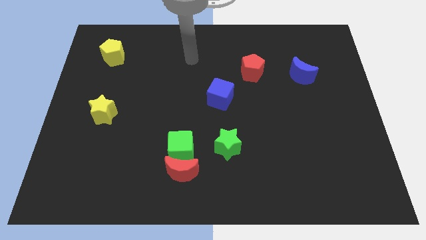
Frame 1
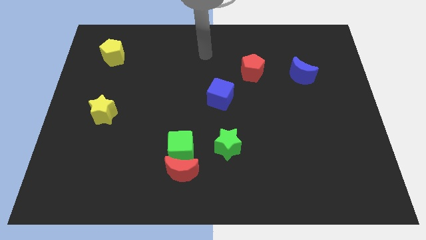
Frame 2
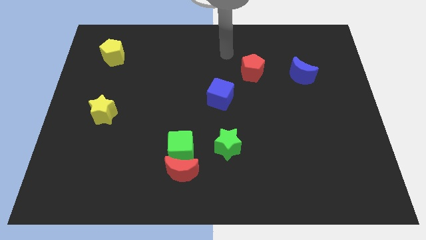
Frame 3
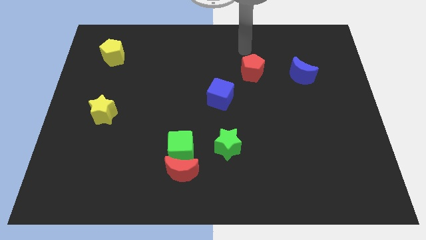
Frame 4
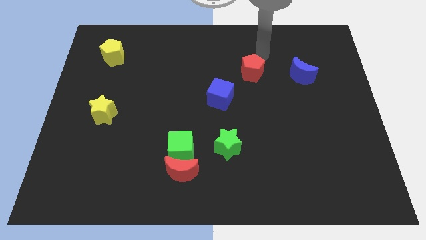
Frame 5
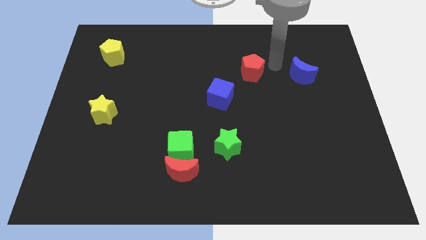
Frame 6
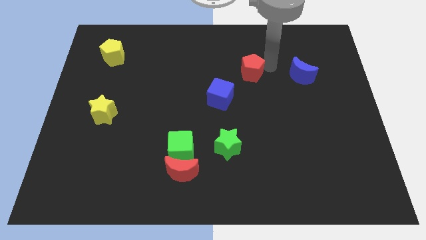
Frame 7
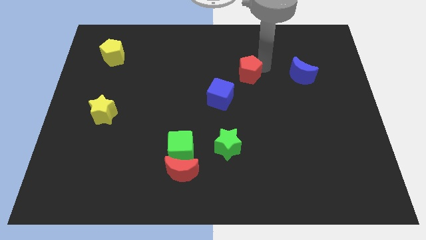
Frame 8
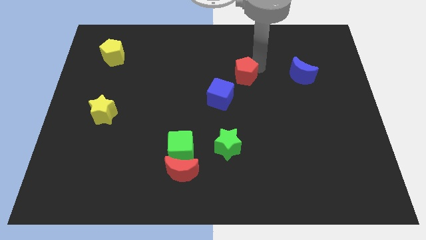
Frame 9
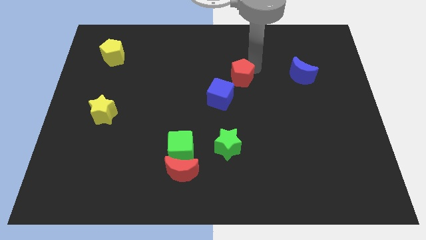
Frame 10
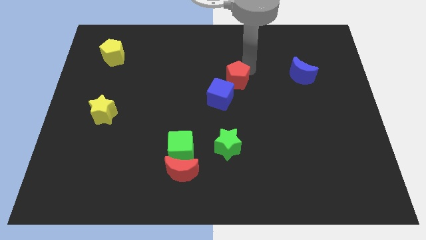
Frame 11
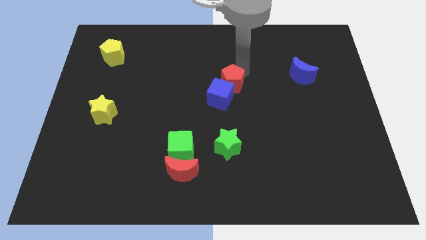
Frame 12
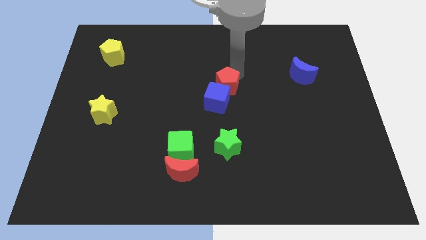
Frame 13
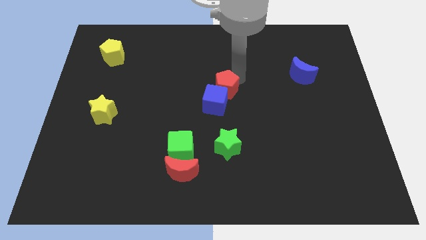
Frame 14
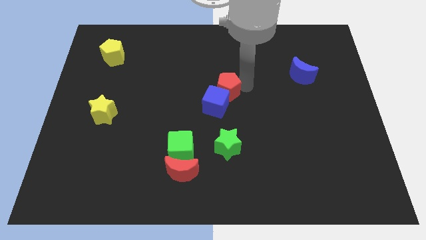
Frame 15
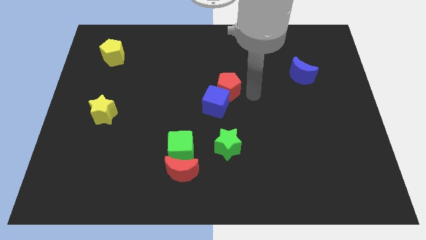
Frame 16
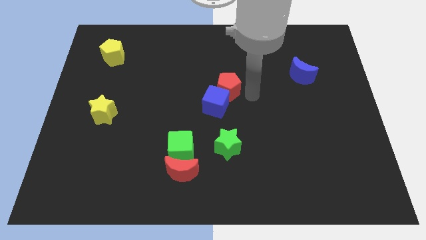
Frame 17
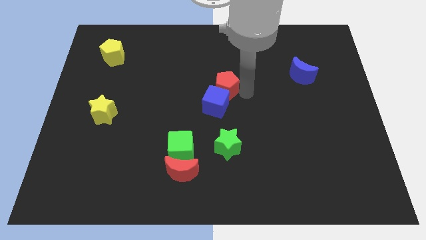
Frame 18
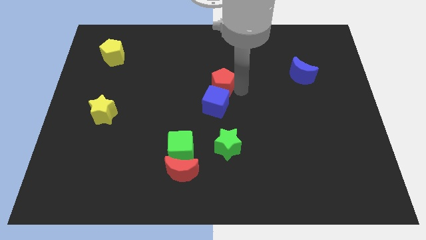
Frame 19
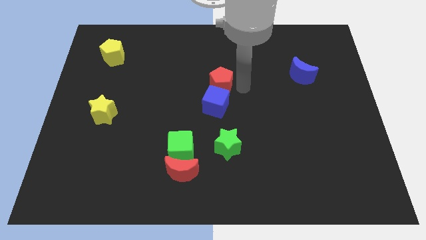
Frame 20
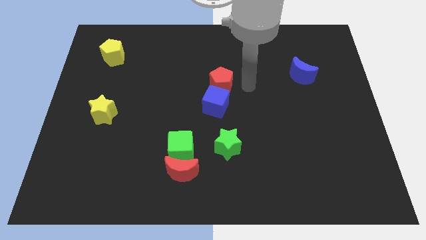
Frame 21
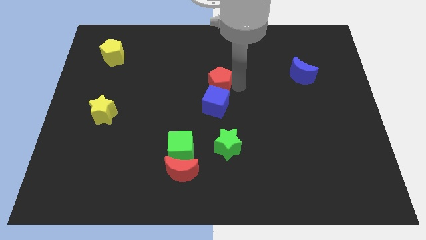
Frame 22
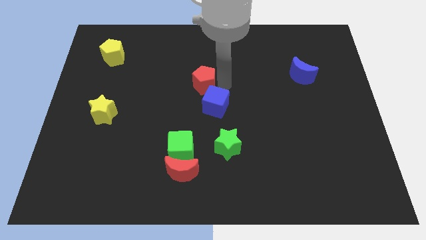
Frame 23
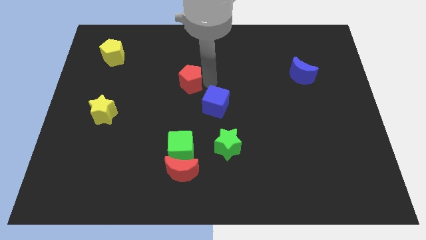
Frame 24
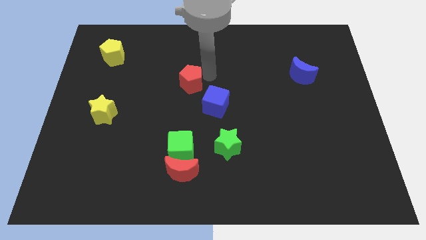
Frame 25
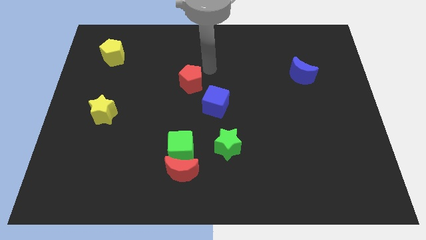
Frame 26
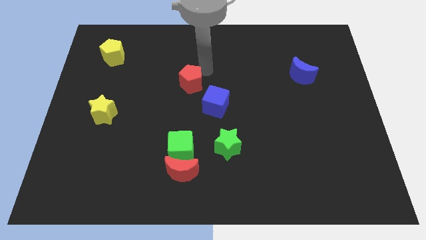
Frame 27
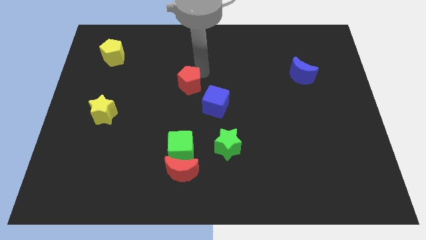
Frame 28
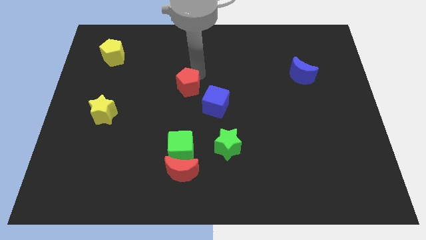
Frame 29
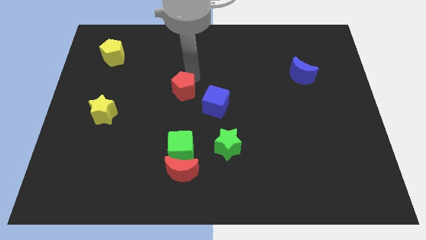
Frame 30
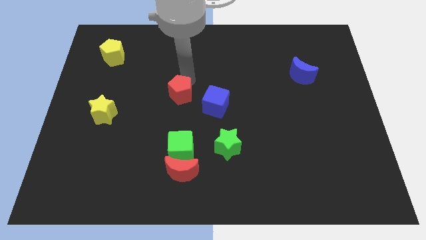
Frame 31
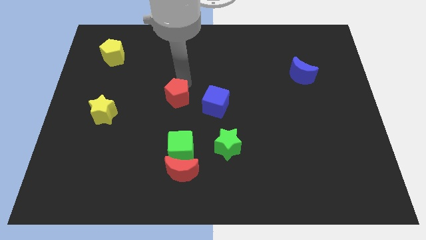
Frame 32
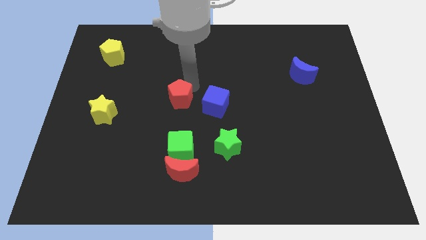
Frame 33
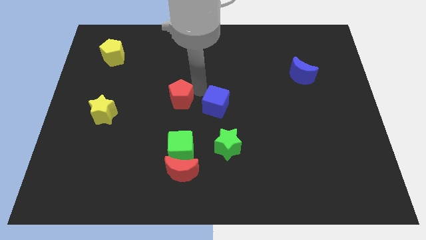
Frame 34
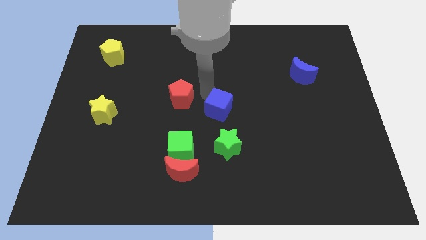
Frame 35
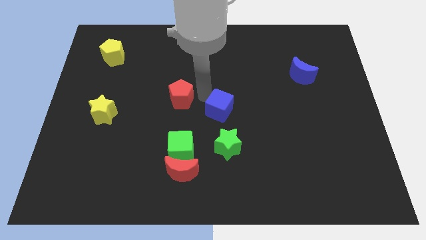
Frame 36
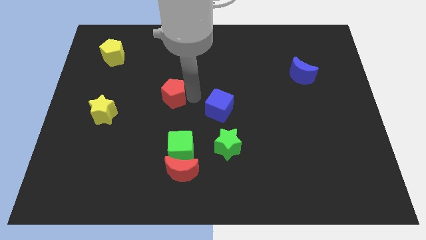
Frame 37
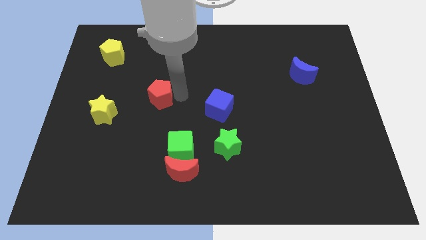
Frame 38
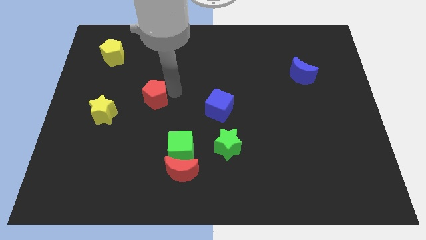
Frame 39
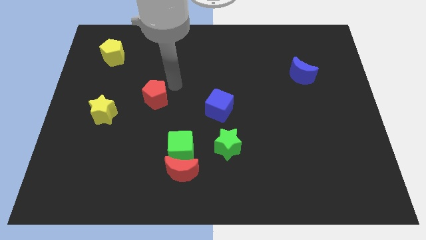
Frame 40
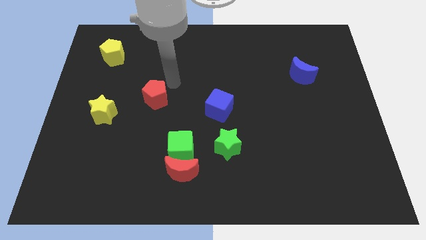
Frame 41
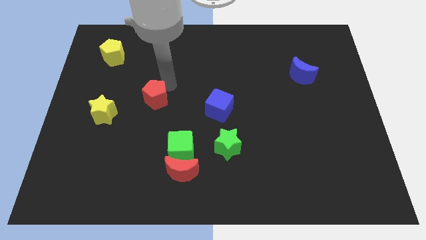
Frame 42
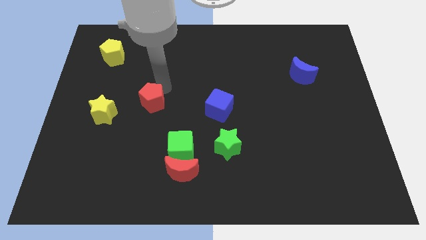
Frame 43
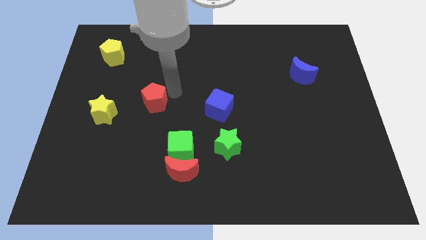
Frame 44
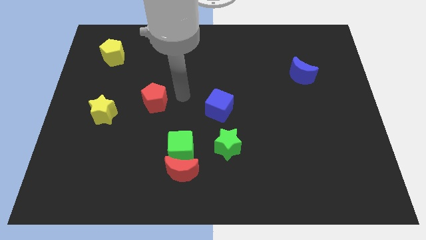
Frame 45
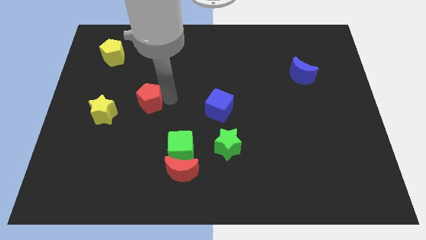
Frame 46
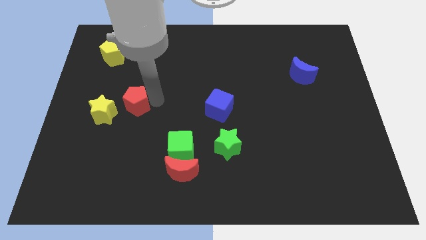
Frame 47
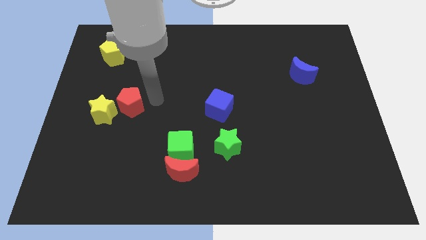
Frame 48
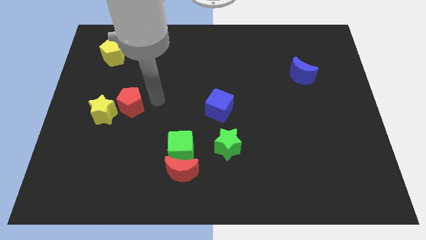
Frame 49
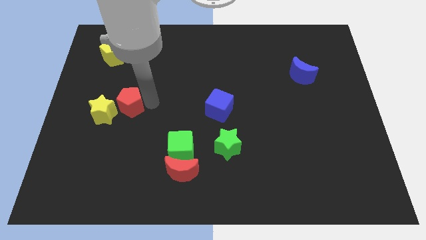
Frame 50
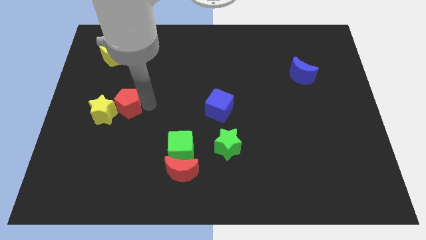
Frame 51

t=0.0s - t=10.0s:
move the red pentagon to the yellow star

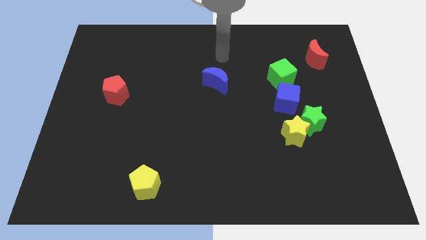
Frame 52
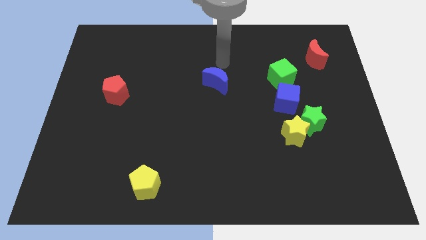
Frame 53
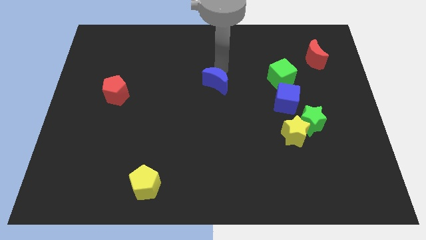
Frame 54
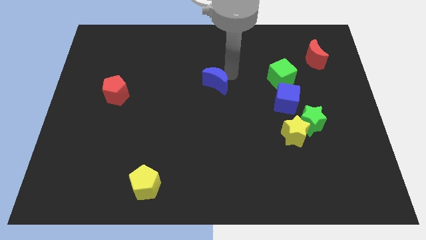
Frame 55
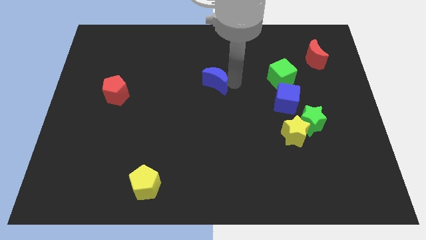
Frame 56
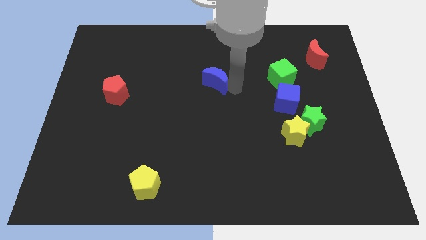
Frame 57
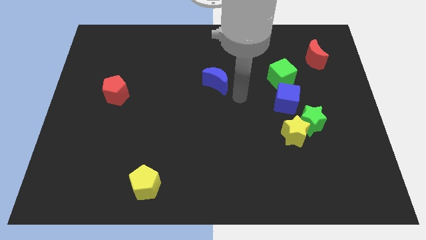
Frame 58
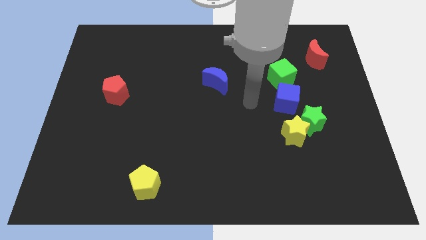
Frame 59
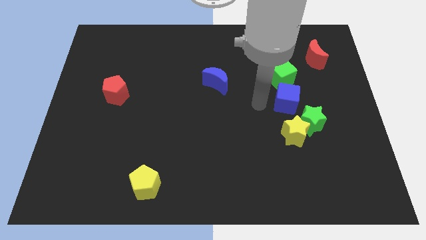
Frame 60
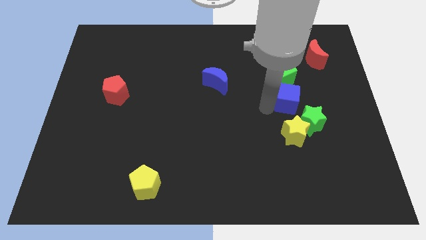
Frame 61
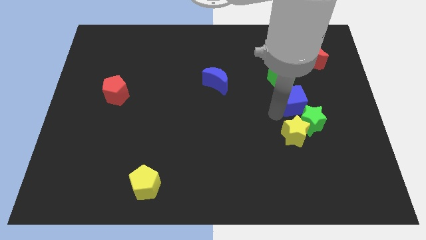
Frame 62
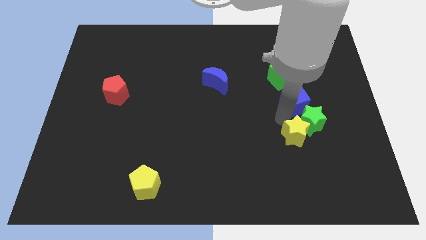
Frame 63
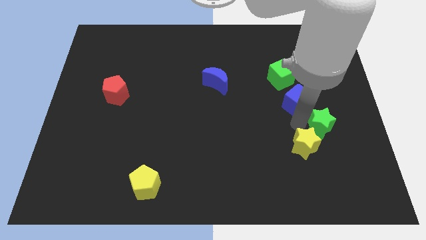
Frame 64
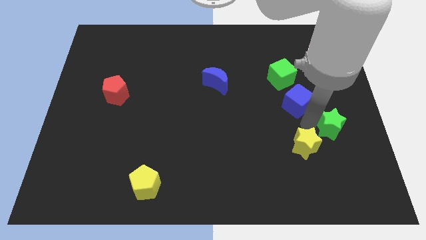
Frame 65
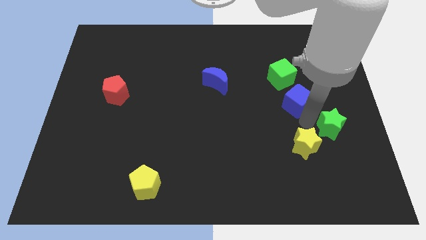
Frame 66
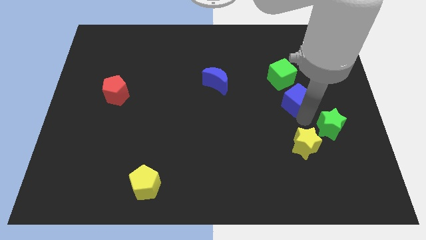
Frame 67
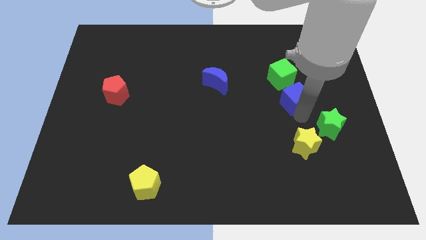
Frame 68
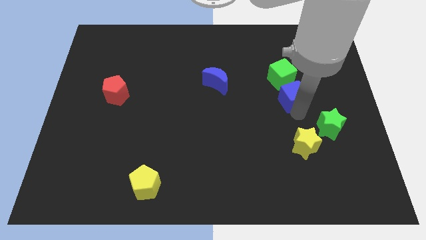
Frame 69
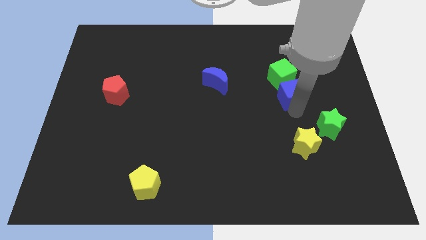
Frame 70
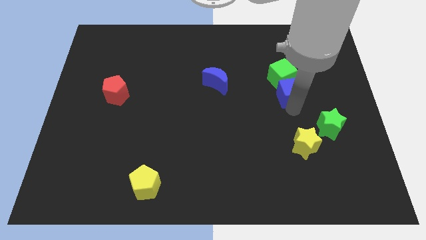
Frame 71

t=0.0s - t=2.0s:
move the blue cube next to the green cube
